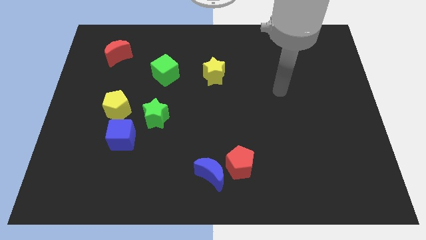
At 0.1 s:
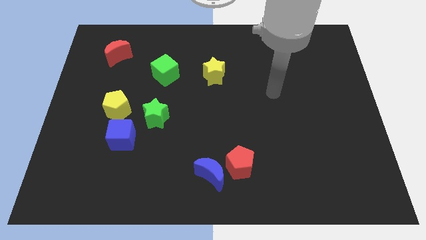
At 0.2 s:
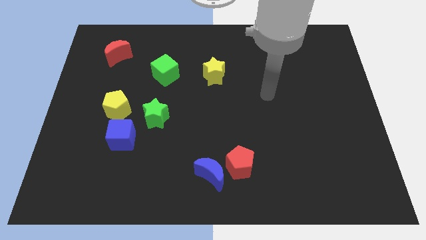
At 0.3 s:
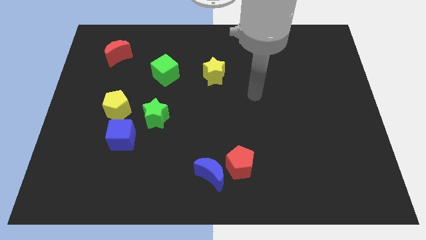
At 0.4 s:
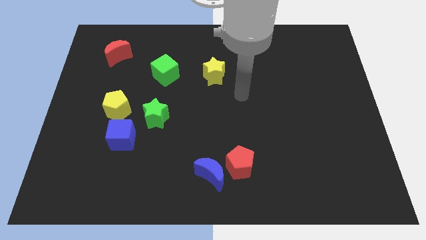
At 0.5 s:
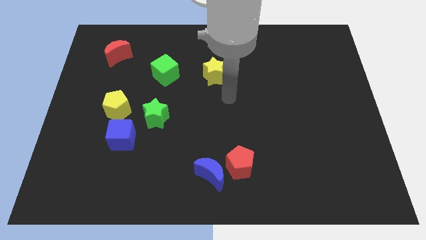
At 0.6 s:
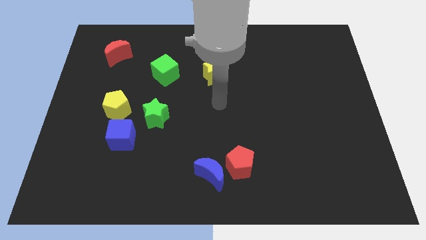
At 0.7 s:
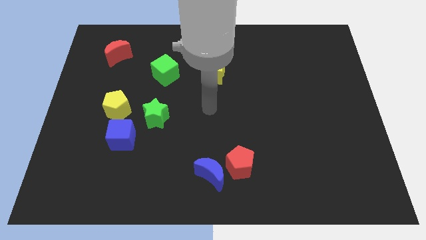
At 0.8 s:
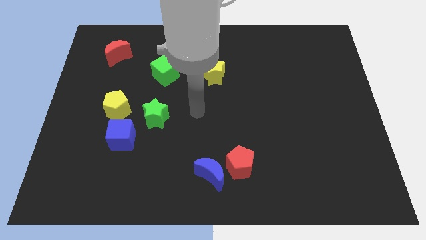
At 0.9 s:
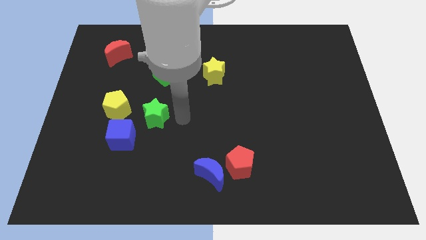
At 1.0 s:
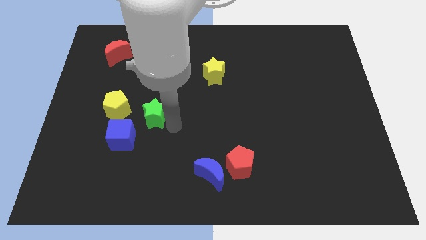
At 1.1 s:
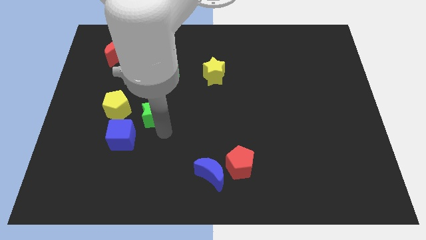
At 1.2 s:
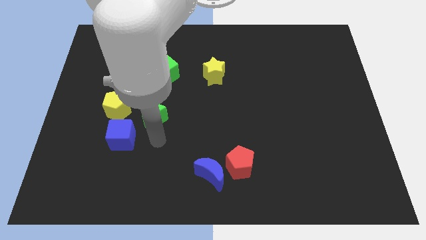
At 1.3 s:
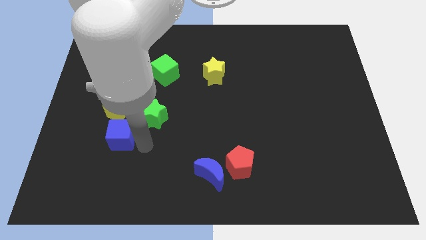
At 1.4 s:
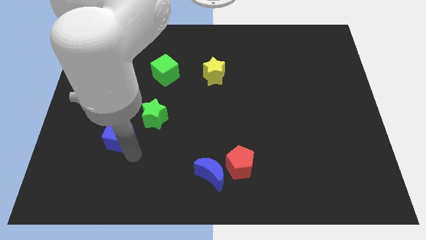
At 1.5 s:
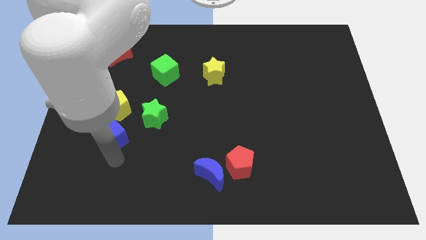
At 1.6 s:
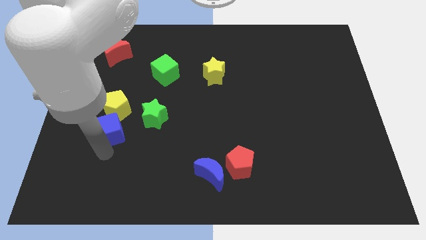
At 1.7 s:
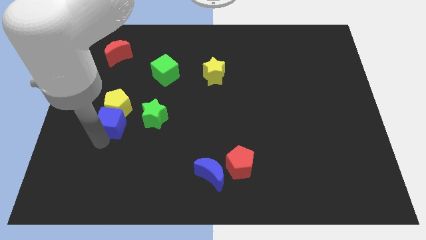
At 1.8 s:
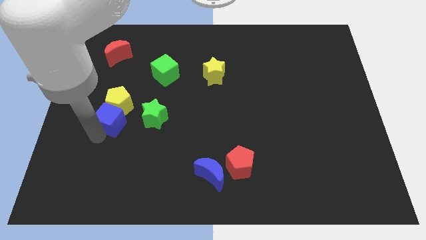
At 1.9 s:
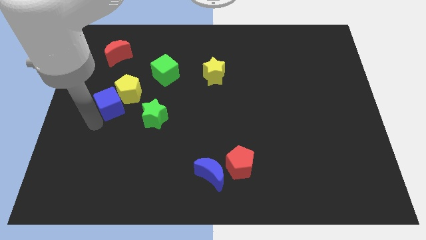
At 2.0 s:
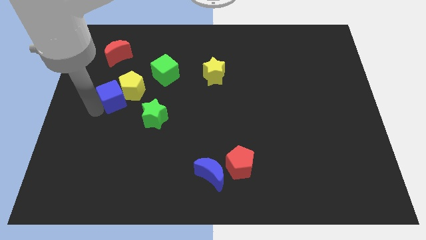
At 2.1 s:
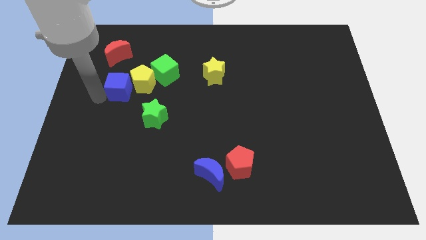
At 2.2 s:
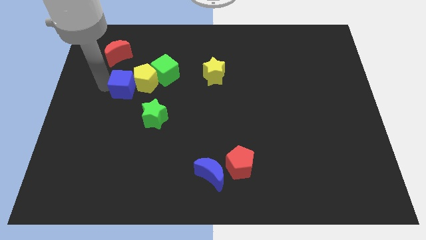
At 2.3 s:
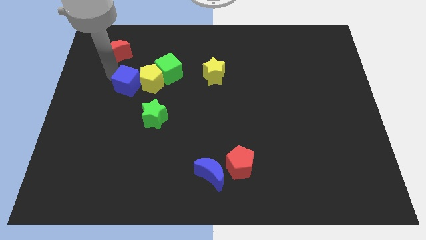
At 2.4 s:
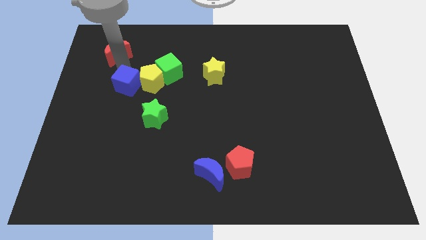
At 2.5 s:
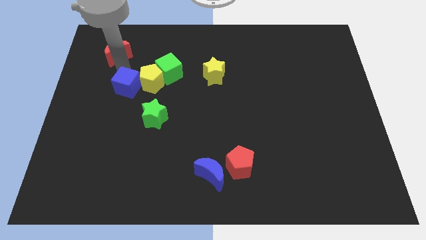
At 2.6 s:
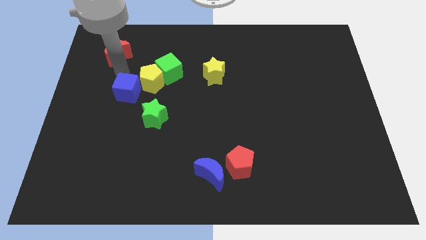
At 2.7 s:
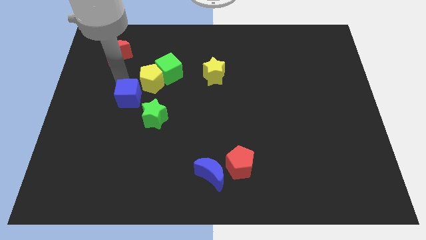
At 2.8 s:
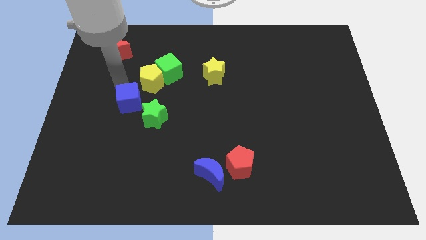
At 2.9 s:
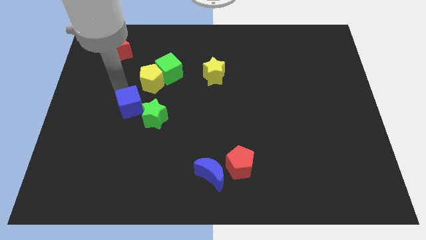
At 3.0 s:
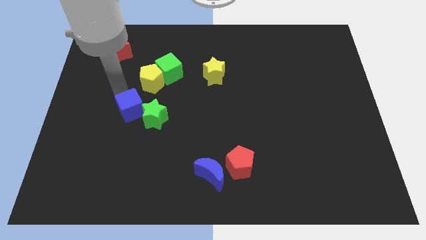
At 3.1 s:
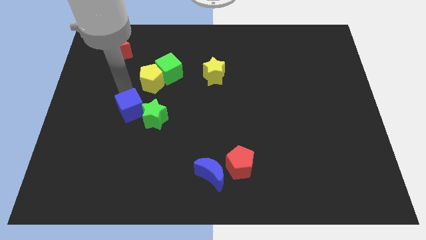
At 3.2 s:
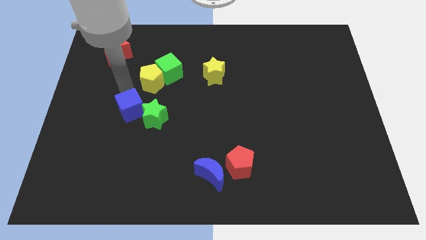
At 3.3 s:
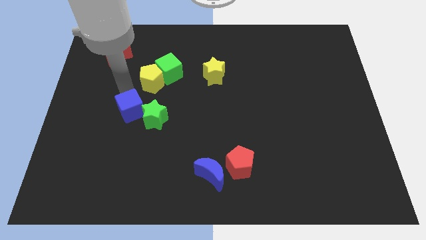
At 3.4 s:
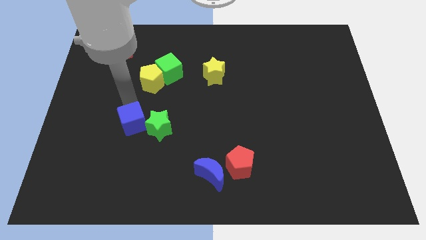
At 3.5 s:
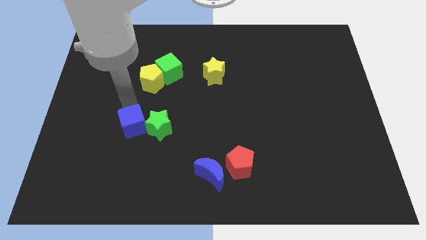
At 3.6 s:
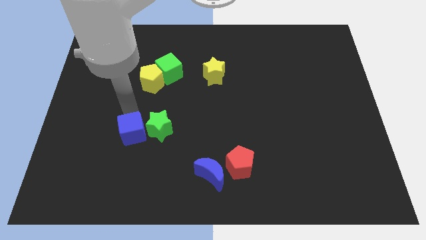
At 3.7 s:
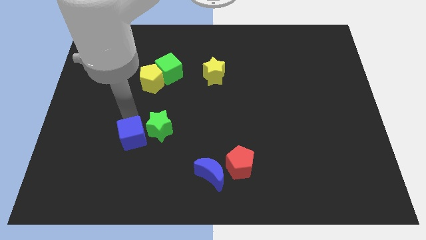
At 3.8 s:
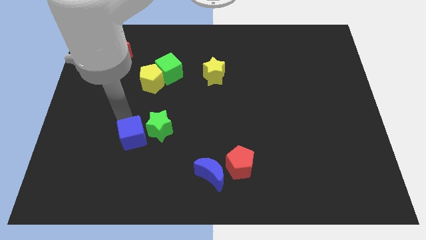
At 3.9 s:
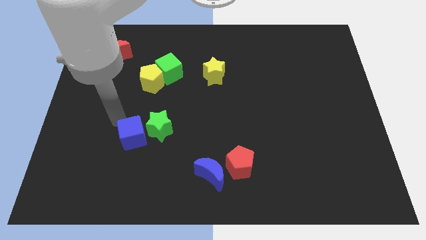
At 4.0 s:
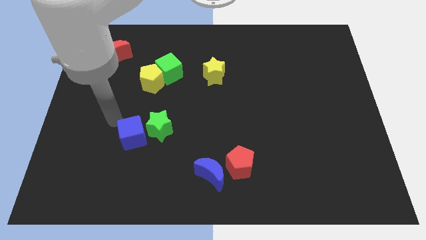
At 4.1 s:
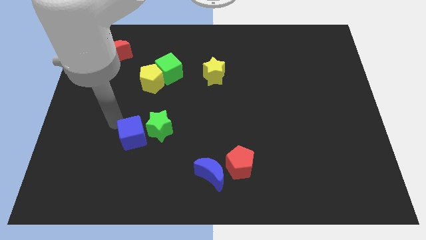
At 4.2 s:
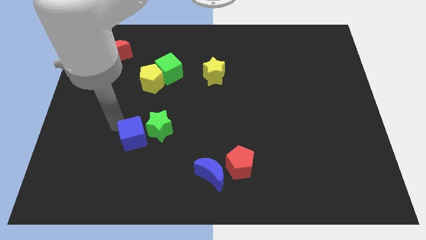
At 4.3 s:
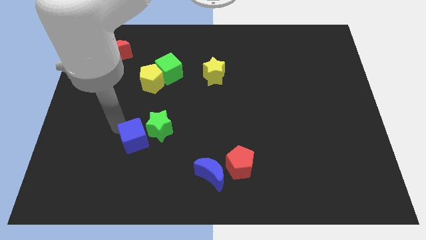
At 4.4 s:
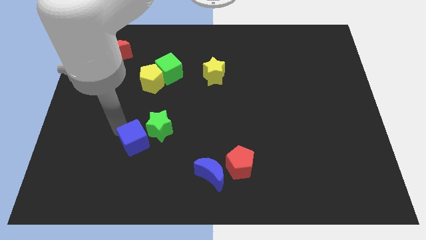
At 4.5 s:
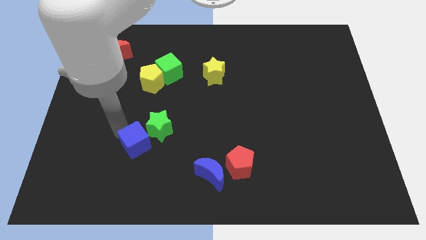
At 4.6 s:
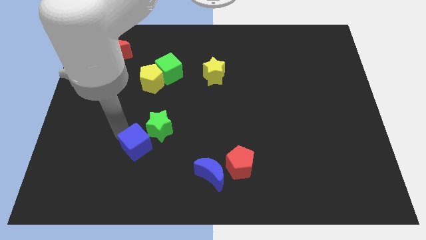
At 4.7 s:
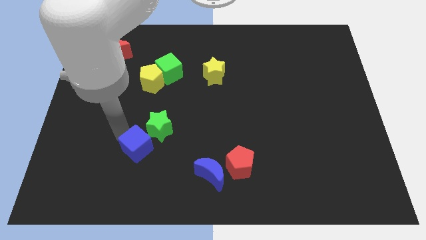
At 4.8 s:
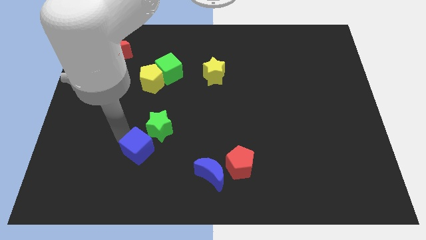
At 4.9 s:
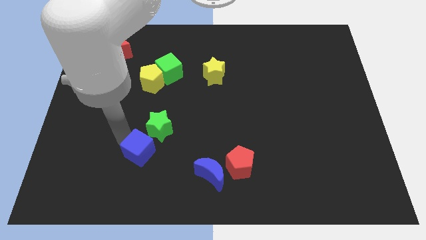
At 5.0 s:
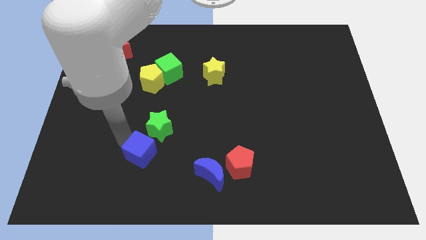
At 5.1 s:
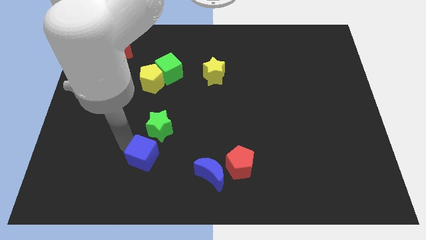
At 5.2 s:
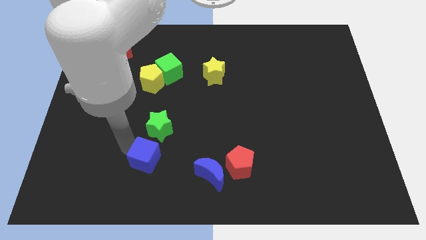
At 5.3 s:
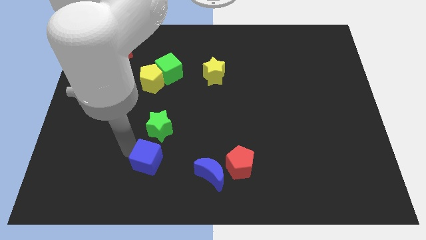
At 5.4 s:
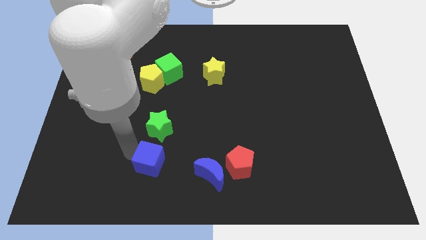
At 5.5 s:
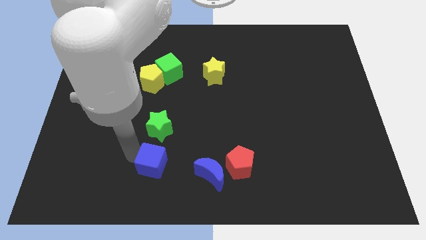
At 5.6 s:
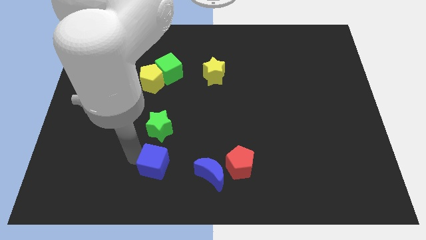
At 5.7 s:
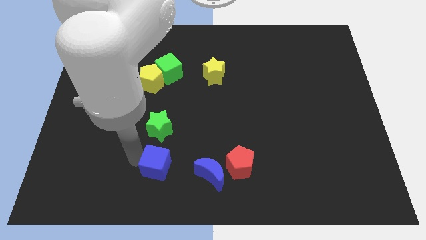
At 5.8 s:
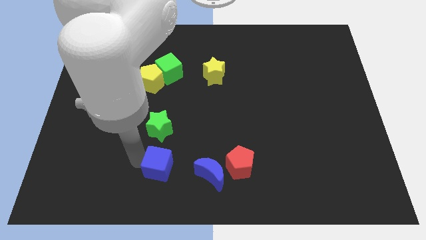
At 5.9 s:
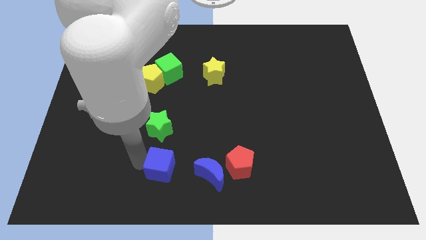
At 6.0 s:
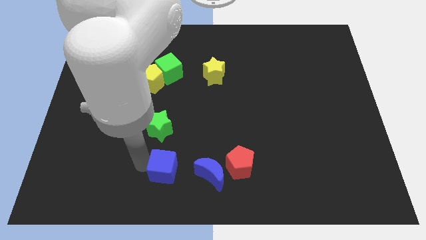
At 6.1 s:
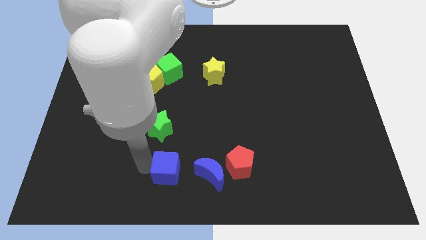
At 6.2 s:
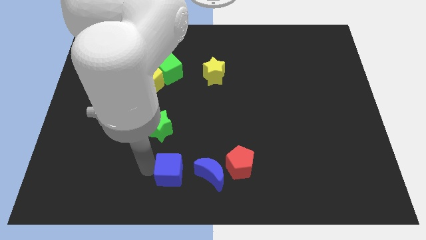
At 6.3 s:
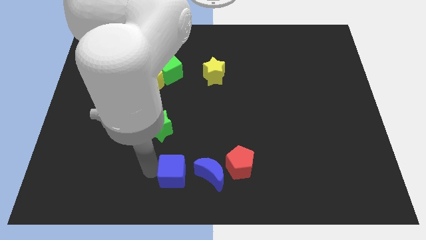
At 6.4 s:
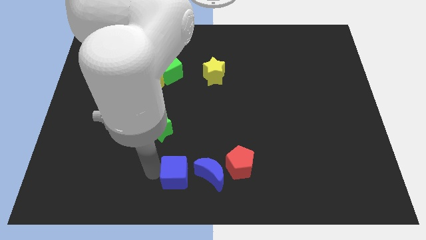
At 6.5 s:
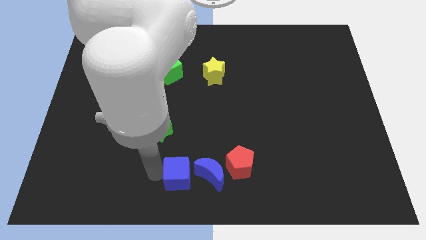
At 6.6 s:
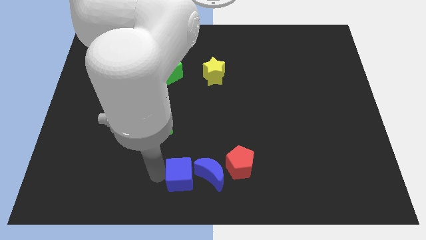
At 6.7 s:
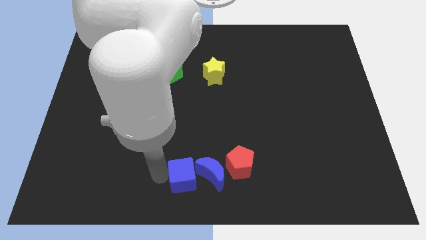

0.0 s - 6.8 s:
push the blue cube next to the blue moon
